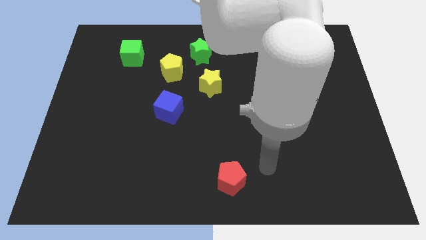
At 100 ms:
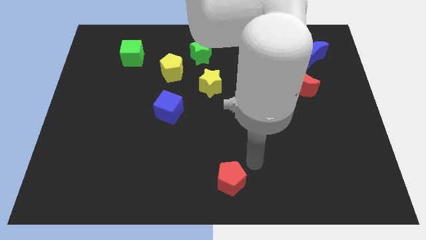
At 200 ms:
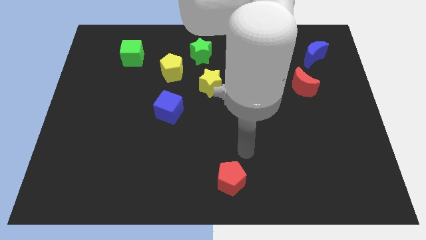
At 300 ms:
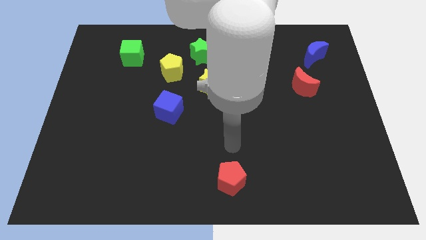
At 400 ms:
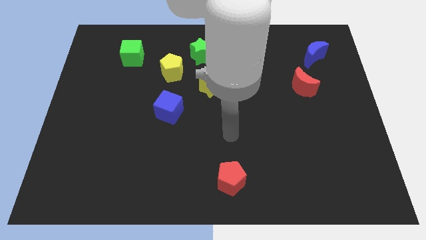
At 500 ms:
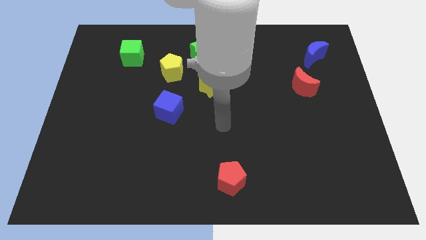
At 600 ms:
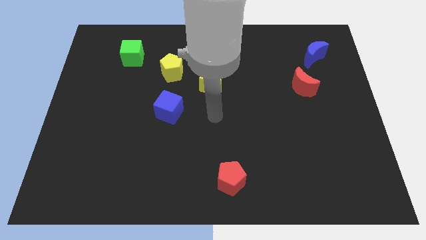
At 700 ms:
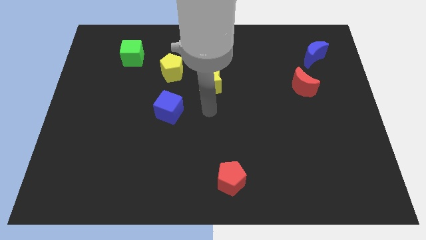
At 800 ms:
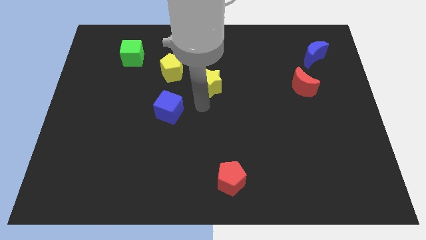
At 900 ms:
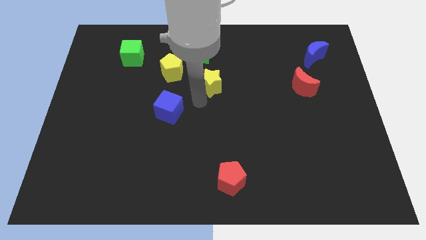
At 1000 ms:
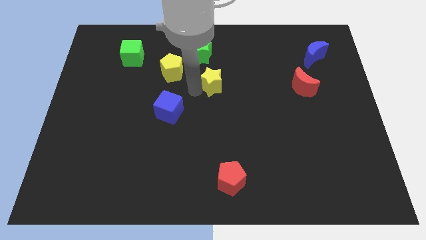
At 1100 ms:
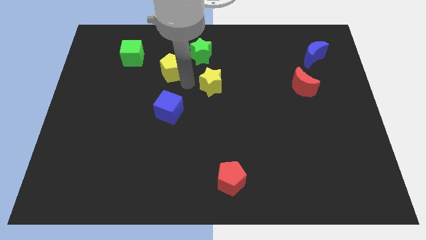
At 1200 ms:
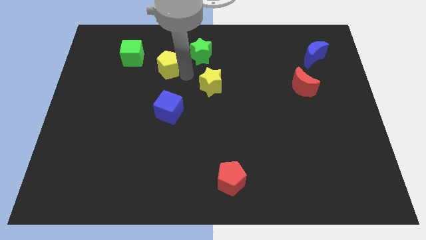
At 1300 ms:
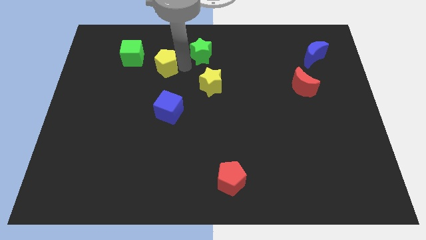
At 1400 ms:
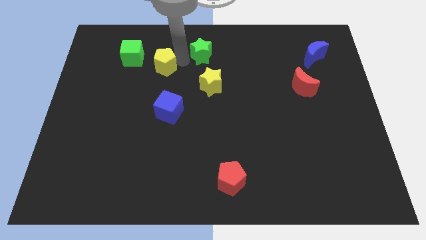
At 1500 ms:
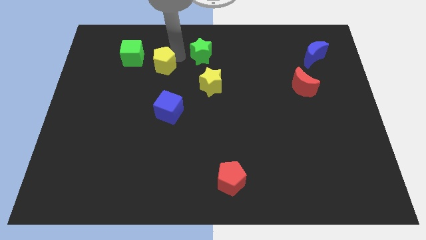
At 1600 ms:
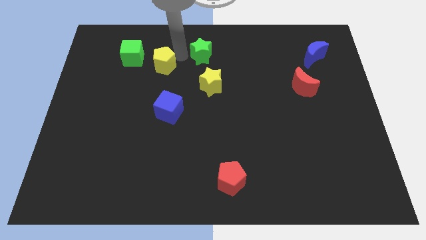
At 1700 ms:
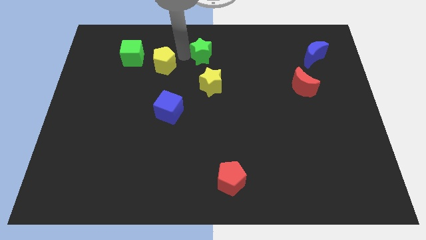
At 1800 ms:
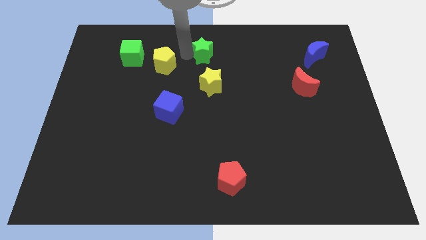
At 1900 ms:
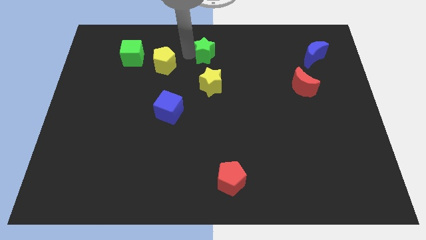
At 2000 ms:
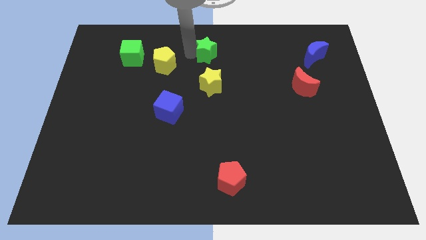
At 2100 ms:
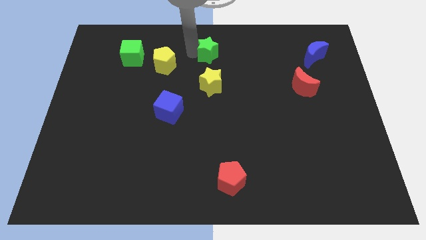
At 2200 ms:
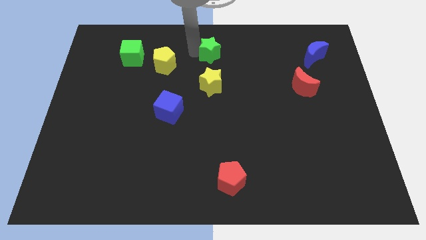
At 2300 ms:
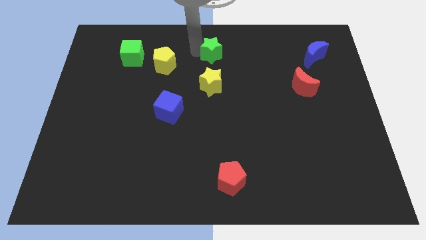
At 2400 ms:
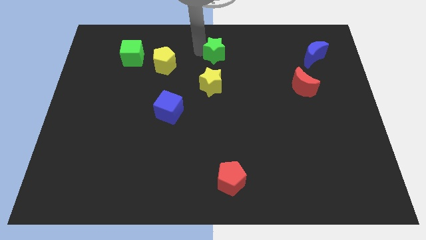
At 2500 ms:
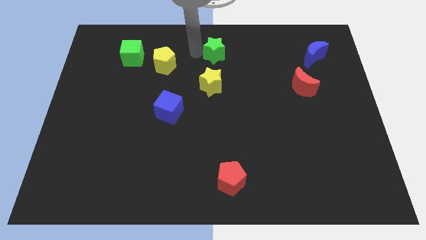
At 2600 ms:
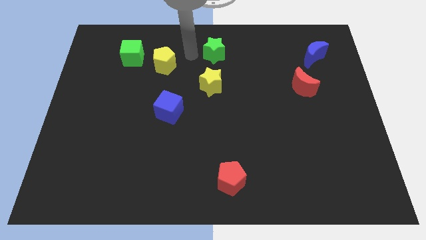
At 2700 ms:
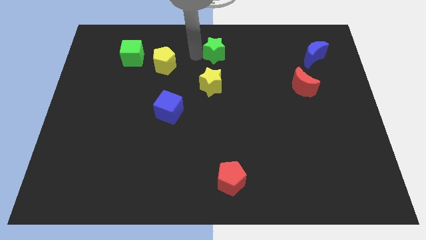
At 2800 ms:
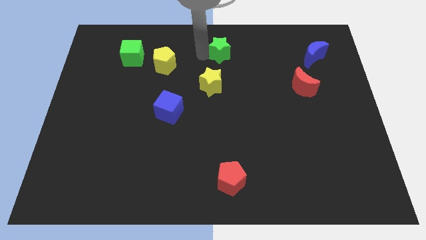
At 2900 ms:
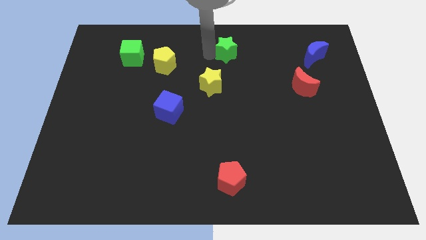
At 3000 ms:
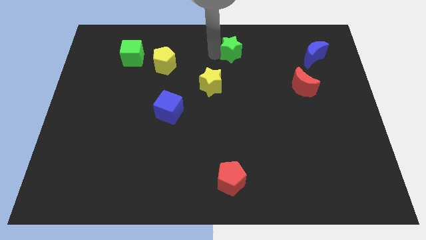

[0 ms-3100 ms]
slide the green star right a bit

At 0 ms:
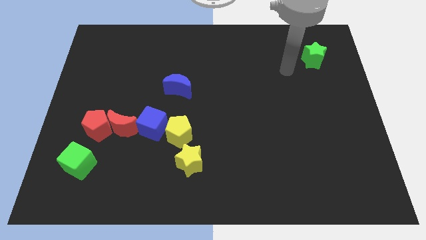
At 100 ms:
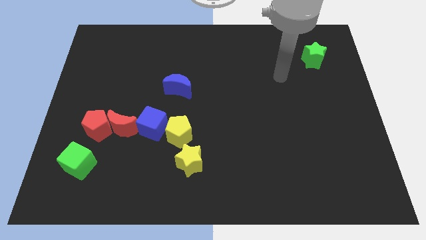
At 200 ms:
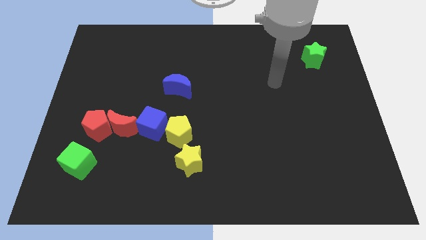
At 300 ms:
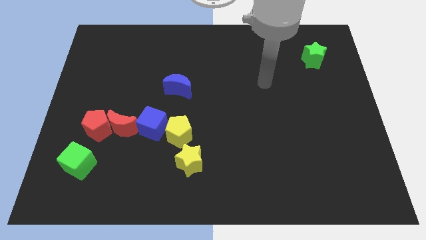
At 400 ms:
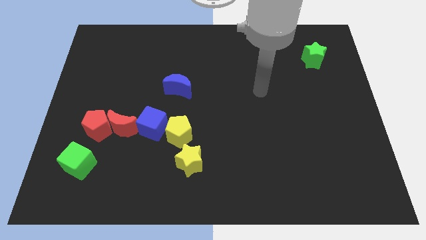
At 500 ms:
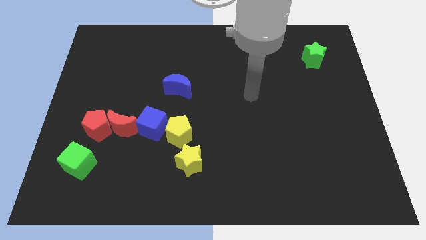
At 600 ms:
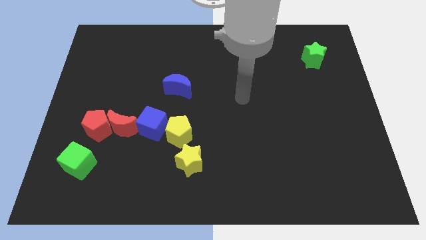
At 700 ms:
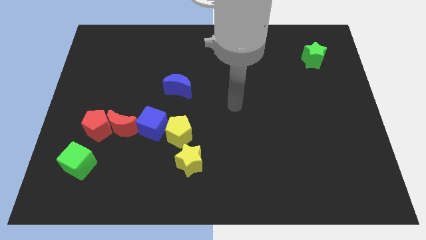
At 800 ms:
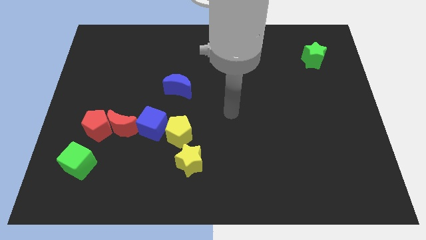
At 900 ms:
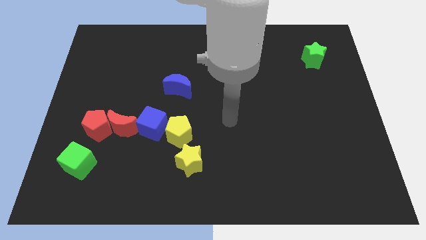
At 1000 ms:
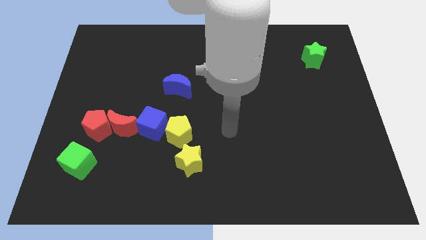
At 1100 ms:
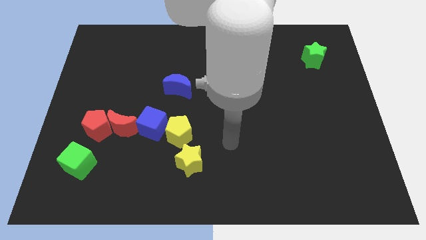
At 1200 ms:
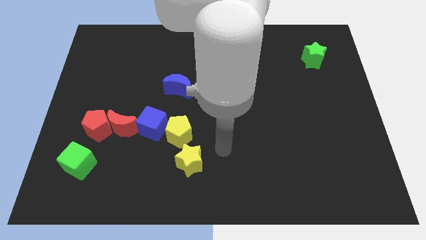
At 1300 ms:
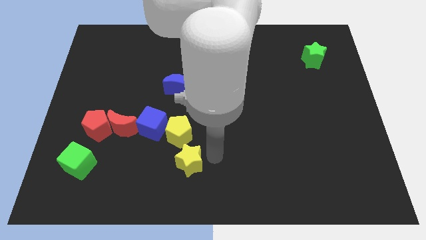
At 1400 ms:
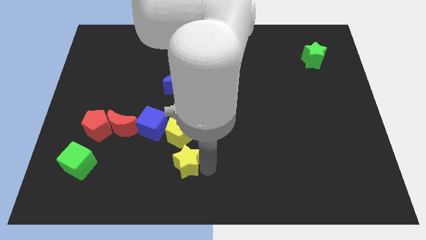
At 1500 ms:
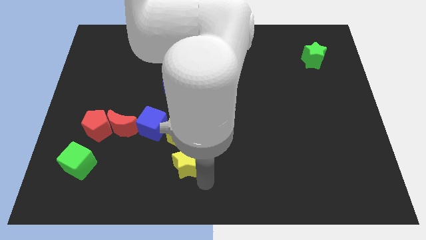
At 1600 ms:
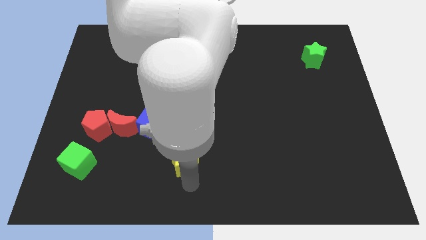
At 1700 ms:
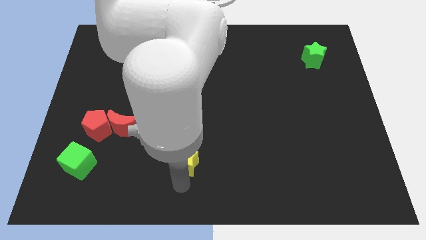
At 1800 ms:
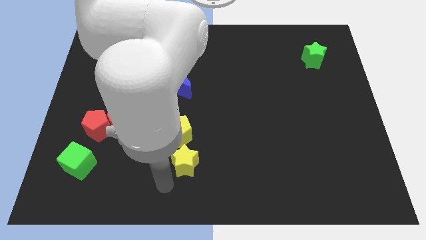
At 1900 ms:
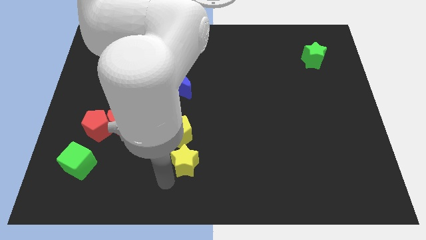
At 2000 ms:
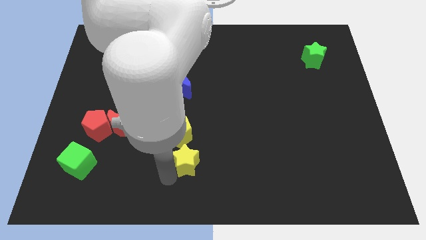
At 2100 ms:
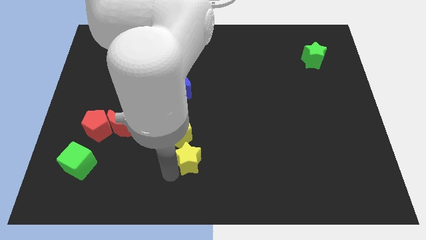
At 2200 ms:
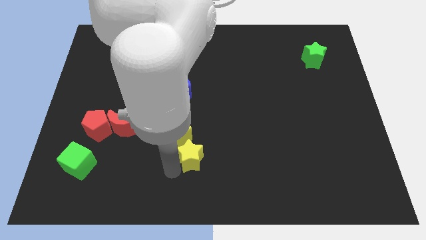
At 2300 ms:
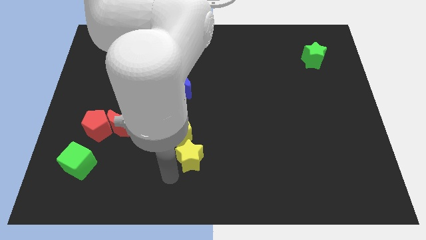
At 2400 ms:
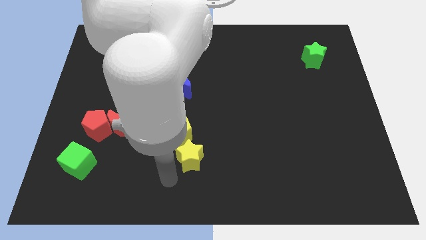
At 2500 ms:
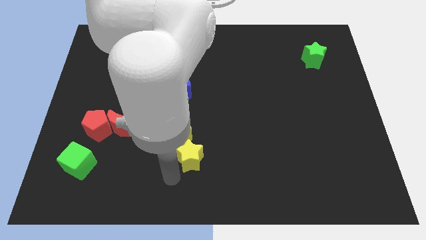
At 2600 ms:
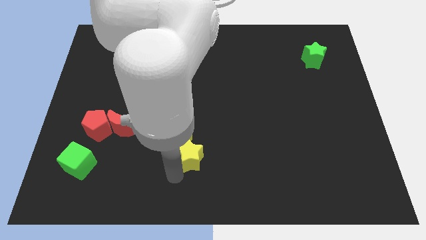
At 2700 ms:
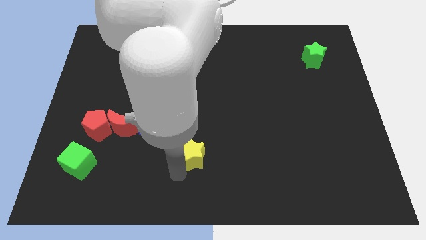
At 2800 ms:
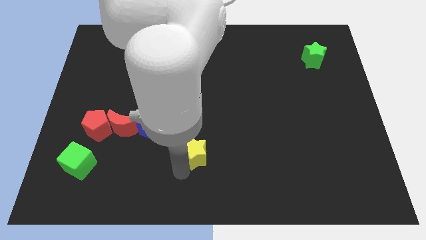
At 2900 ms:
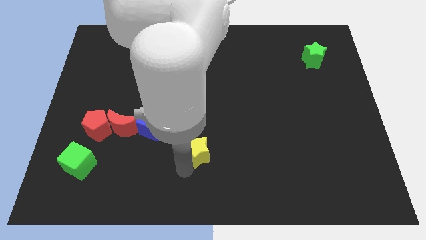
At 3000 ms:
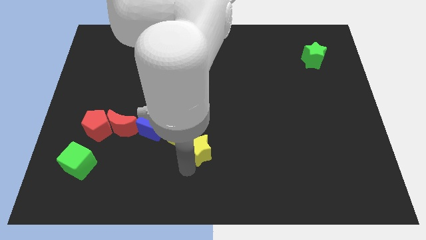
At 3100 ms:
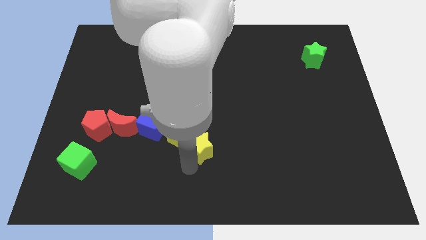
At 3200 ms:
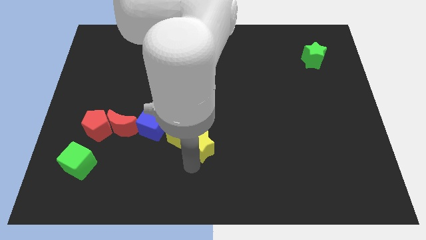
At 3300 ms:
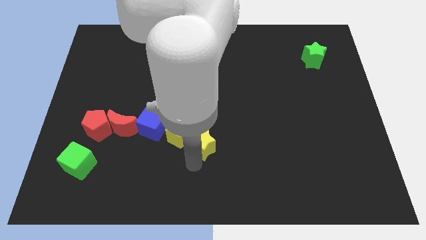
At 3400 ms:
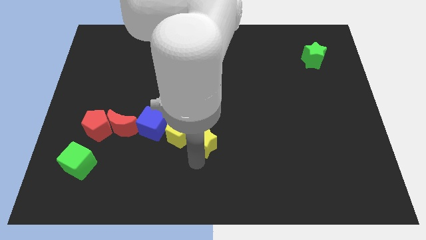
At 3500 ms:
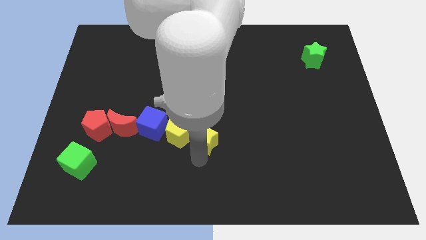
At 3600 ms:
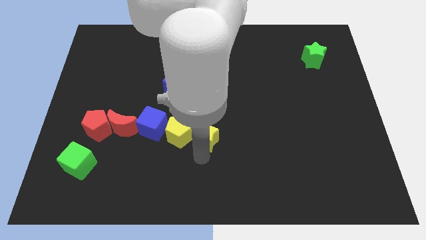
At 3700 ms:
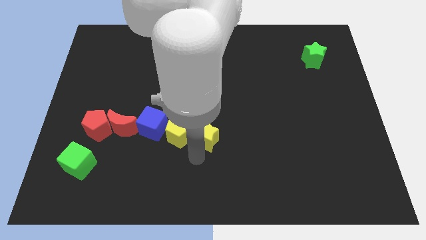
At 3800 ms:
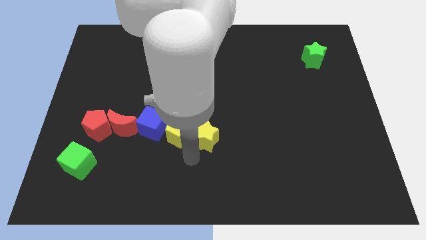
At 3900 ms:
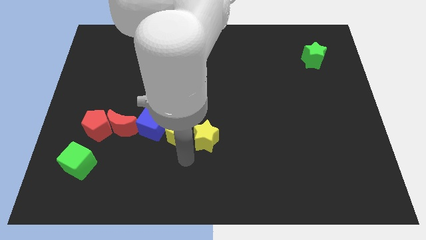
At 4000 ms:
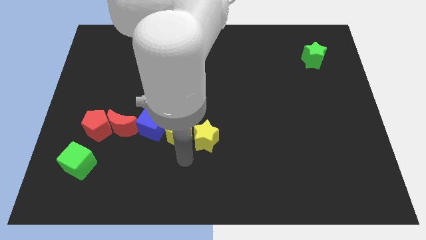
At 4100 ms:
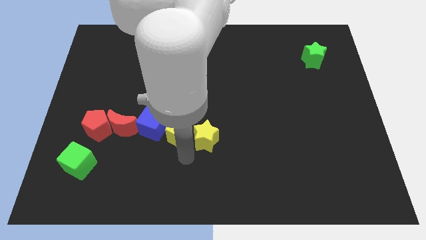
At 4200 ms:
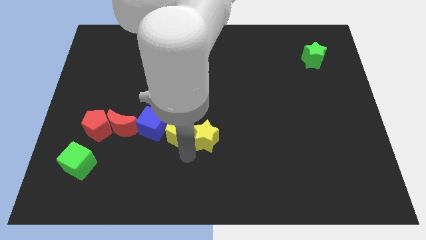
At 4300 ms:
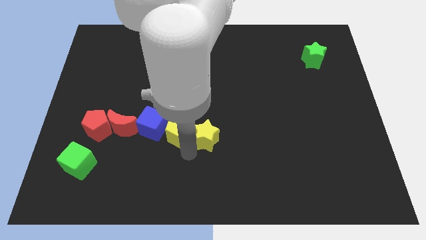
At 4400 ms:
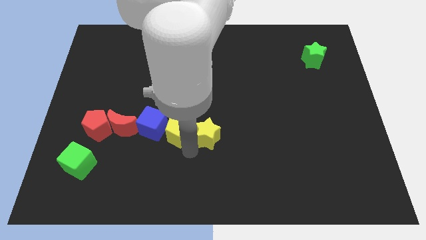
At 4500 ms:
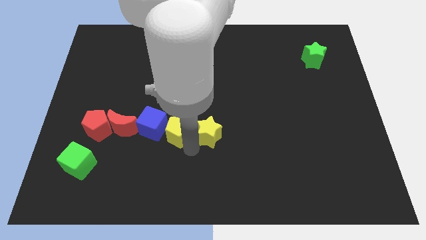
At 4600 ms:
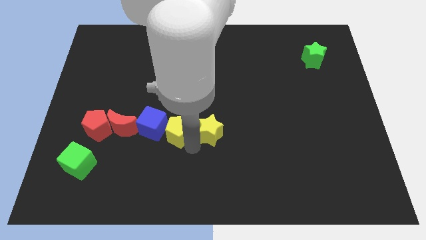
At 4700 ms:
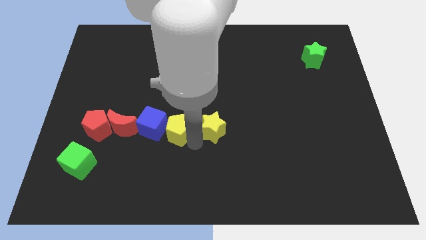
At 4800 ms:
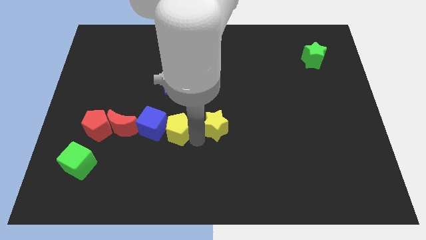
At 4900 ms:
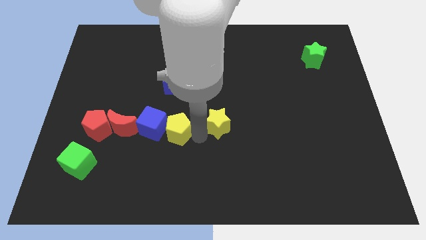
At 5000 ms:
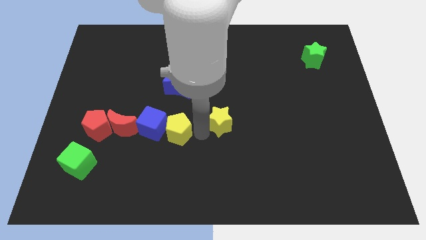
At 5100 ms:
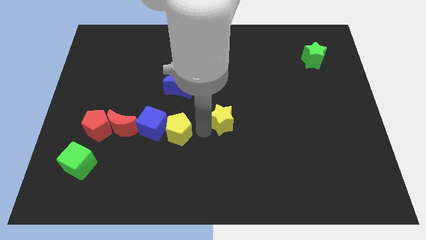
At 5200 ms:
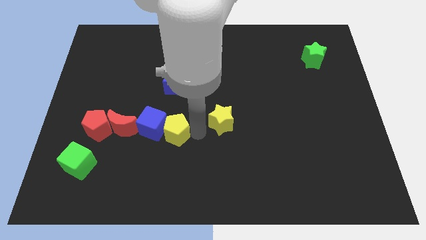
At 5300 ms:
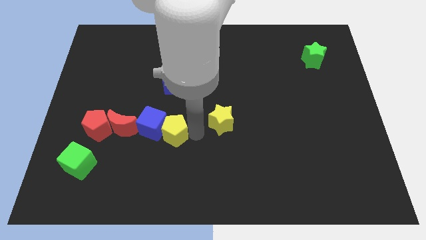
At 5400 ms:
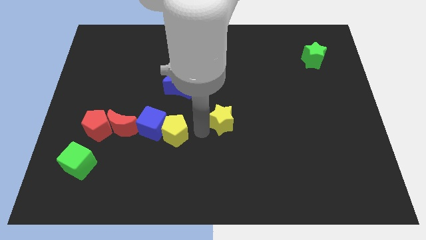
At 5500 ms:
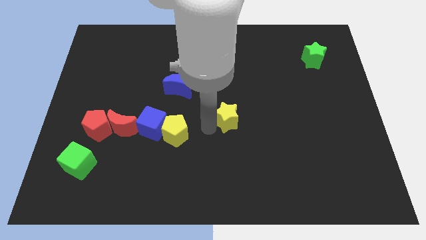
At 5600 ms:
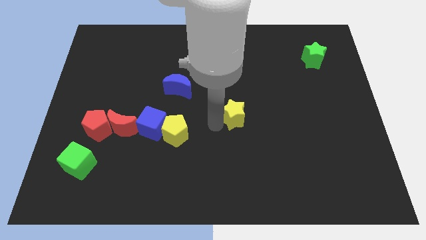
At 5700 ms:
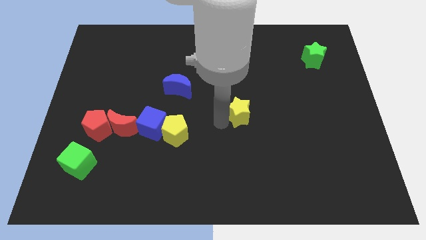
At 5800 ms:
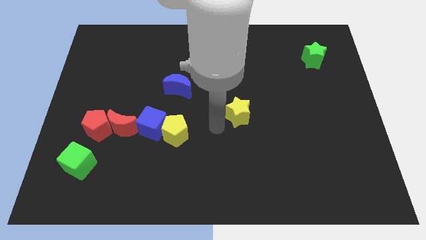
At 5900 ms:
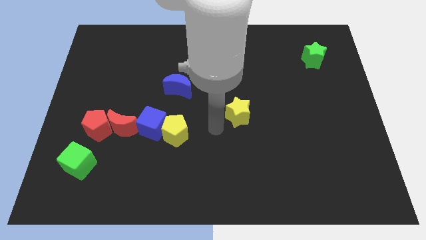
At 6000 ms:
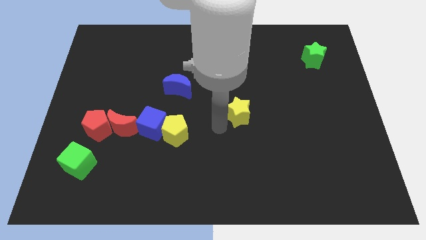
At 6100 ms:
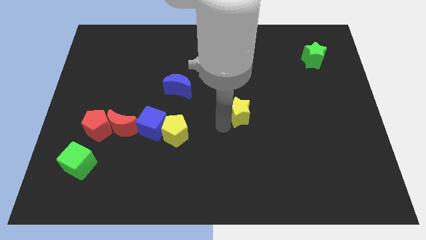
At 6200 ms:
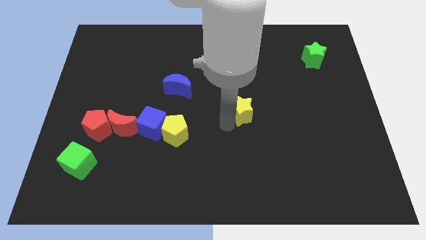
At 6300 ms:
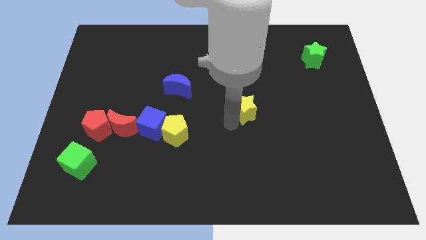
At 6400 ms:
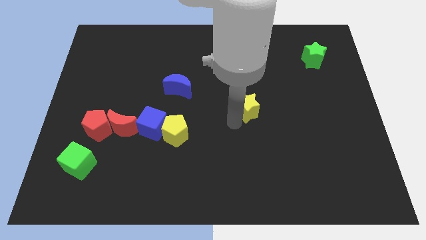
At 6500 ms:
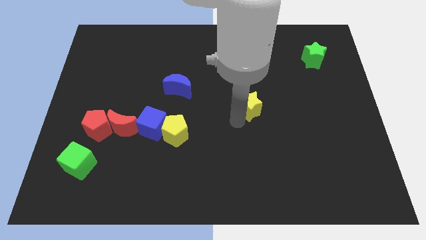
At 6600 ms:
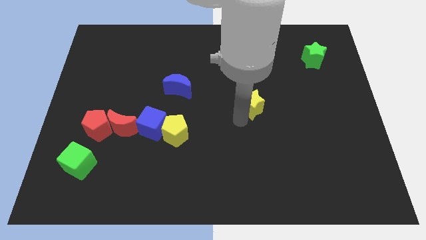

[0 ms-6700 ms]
move the yellow star upwards and then right
